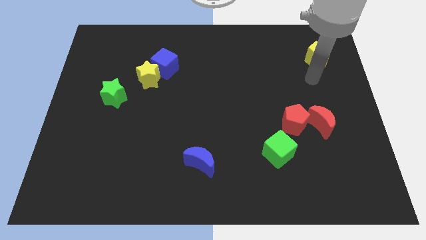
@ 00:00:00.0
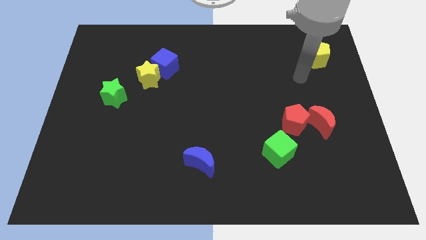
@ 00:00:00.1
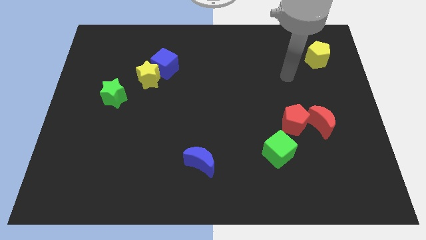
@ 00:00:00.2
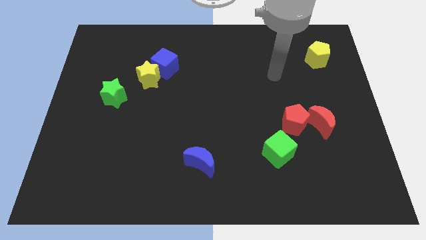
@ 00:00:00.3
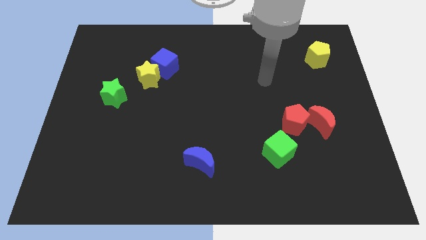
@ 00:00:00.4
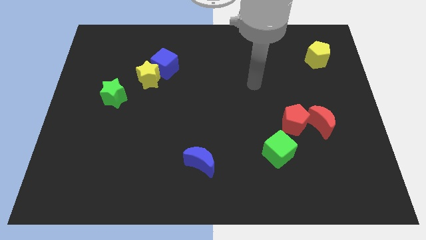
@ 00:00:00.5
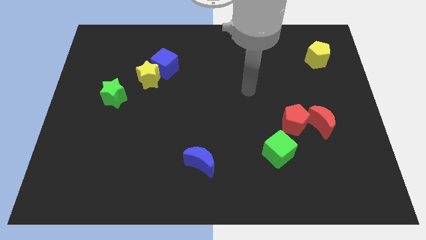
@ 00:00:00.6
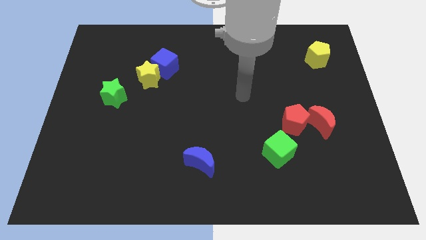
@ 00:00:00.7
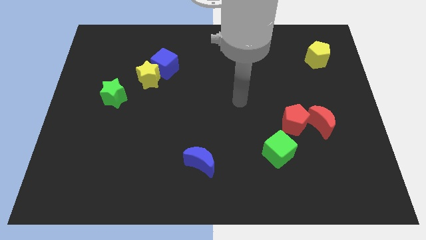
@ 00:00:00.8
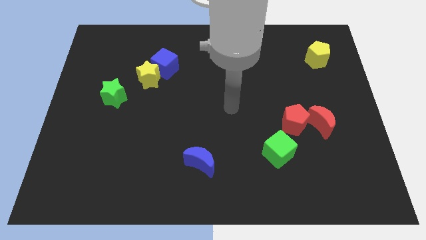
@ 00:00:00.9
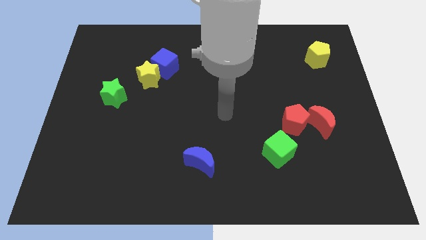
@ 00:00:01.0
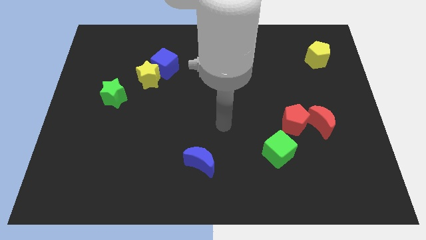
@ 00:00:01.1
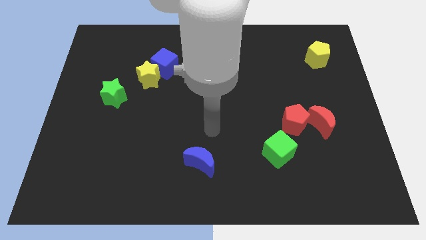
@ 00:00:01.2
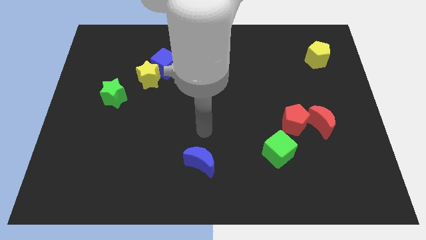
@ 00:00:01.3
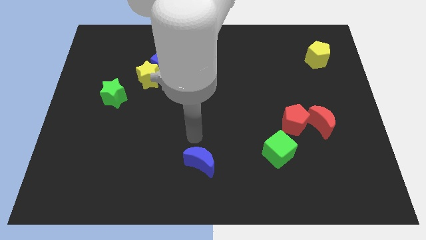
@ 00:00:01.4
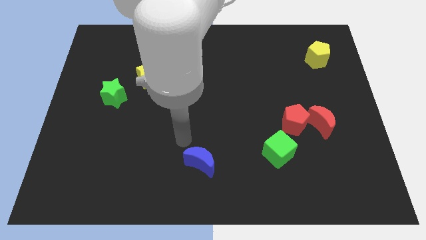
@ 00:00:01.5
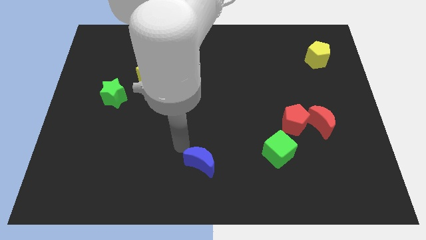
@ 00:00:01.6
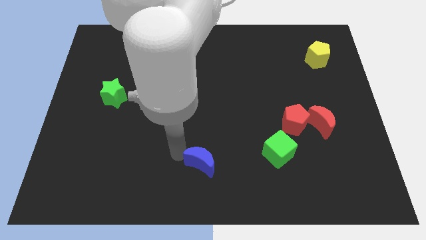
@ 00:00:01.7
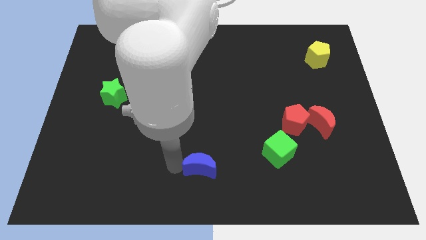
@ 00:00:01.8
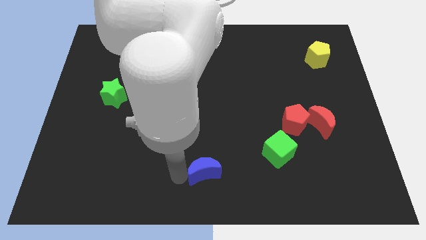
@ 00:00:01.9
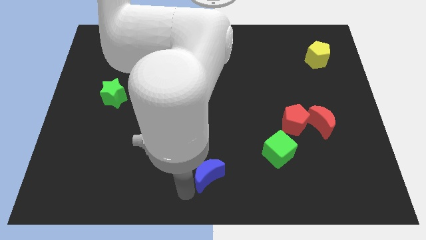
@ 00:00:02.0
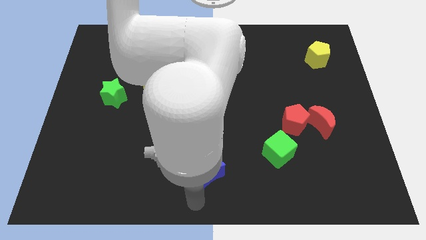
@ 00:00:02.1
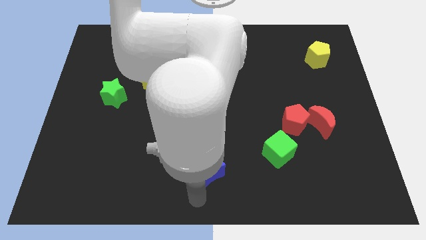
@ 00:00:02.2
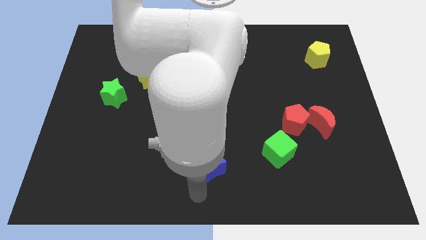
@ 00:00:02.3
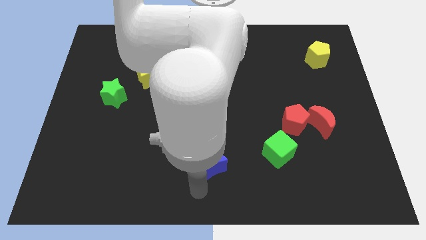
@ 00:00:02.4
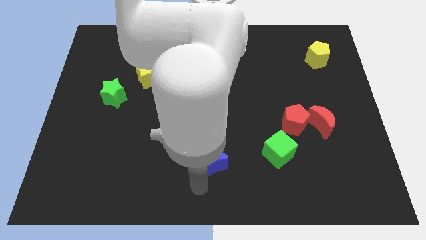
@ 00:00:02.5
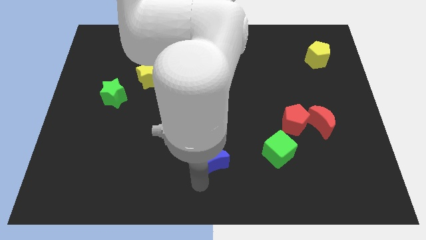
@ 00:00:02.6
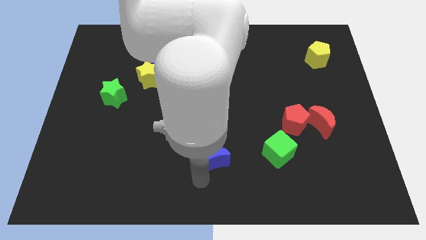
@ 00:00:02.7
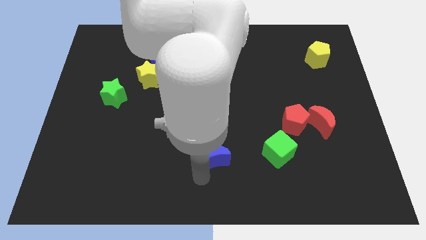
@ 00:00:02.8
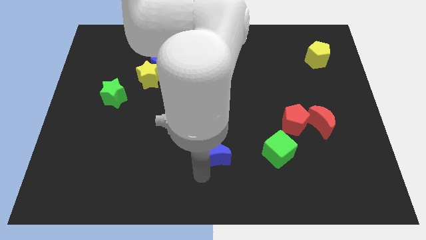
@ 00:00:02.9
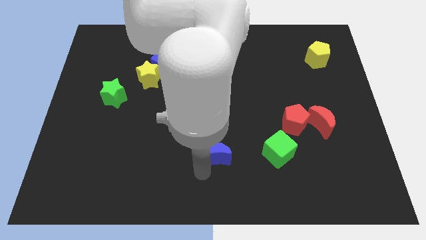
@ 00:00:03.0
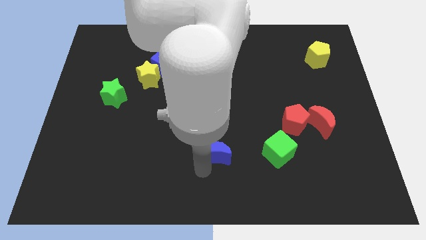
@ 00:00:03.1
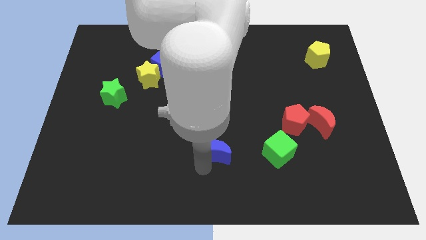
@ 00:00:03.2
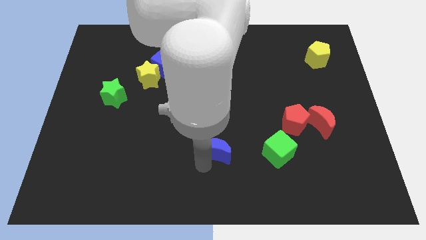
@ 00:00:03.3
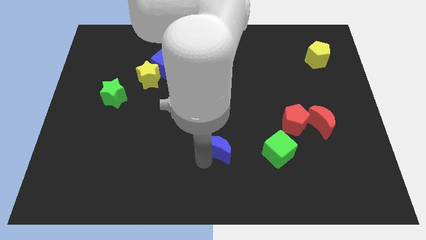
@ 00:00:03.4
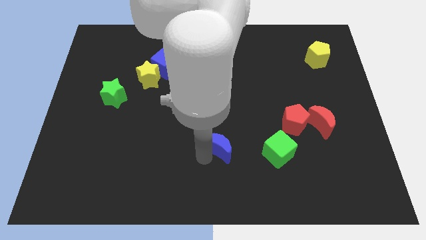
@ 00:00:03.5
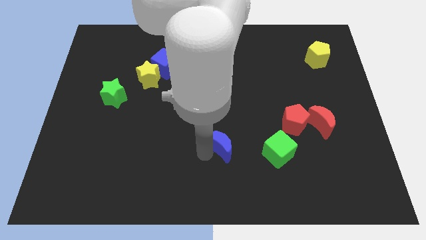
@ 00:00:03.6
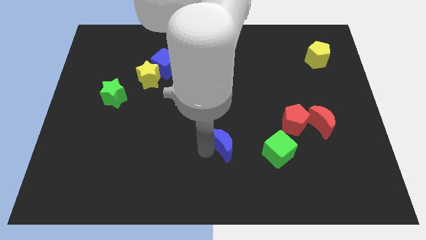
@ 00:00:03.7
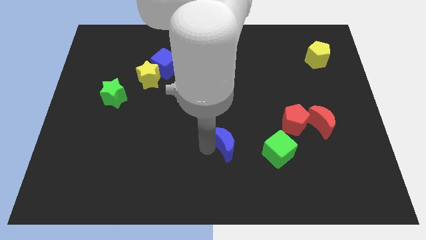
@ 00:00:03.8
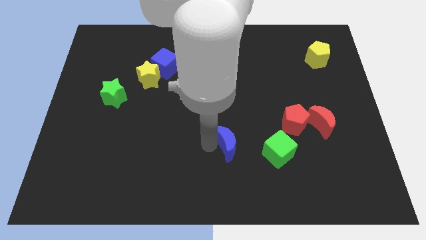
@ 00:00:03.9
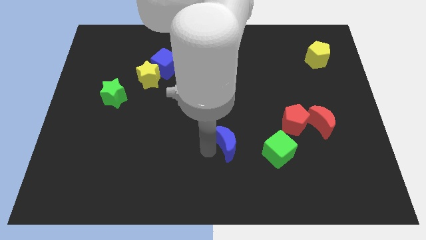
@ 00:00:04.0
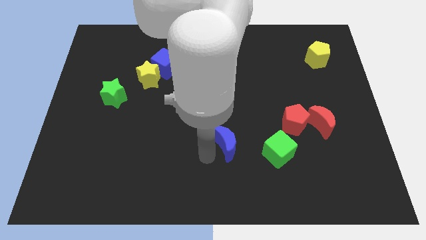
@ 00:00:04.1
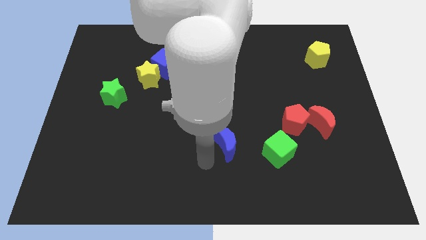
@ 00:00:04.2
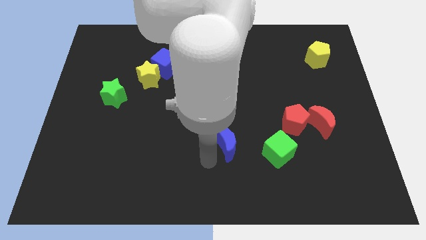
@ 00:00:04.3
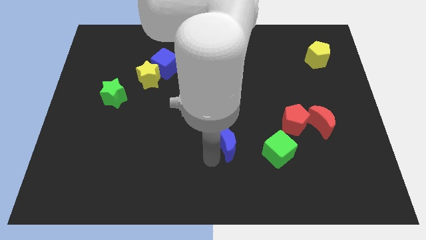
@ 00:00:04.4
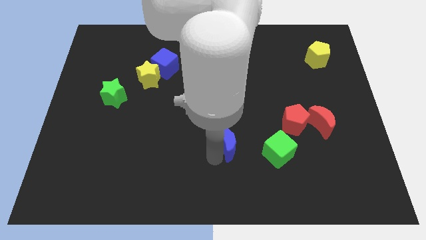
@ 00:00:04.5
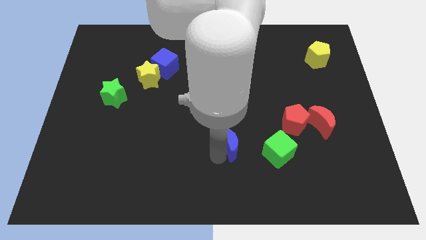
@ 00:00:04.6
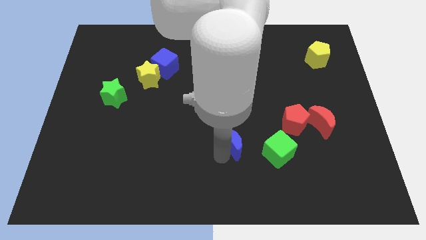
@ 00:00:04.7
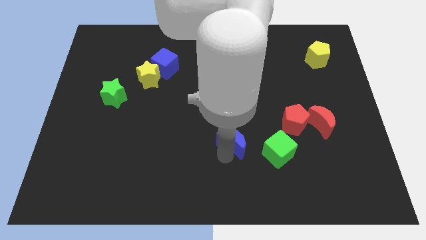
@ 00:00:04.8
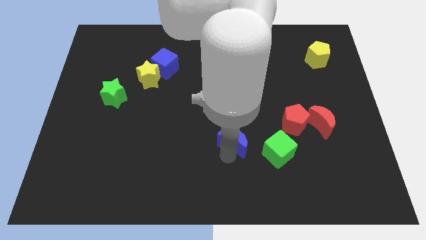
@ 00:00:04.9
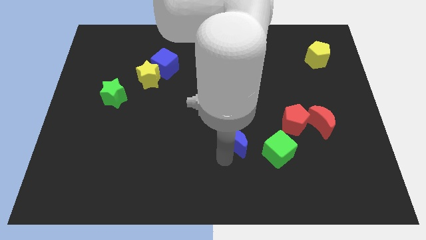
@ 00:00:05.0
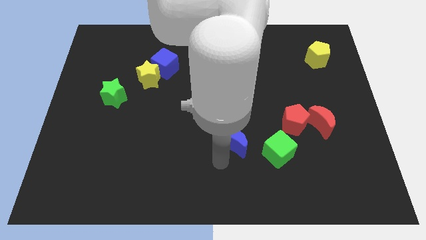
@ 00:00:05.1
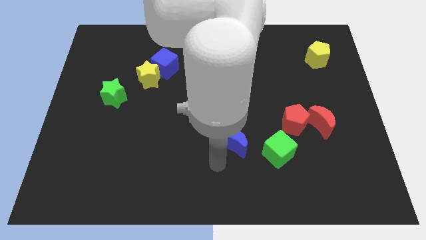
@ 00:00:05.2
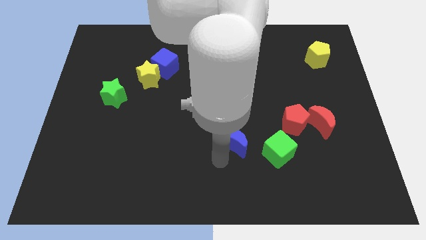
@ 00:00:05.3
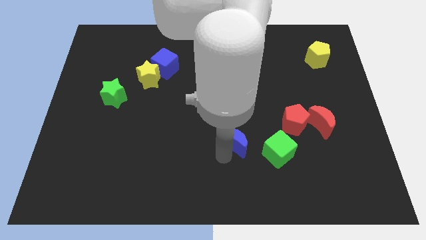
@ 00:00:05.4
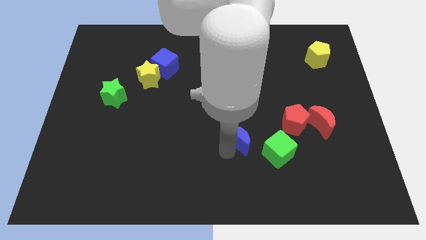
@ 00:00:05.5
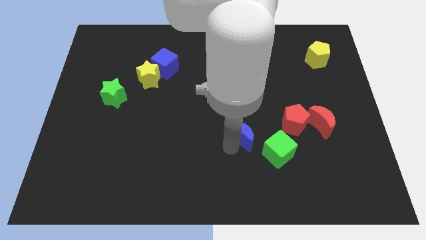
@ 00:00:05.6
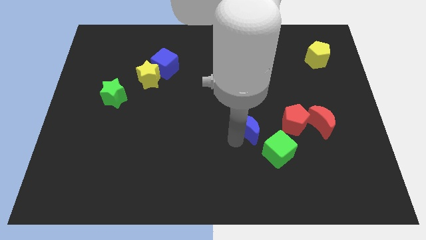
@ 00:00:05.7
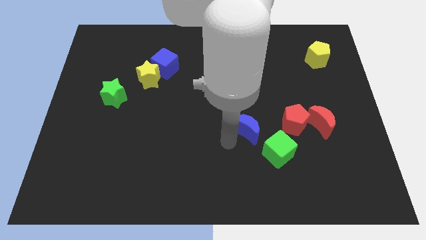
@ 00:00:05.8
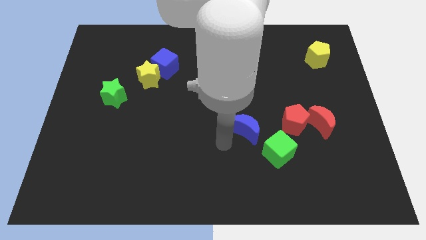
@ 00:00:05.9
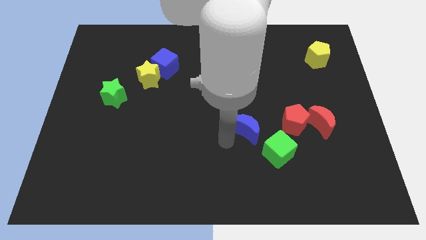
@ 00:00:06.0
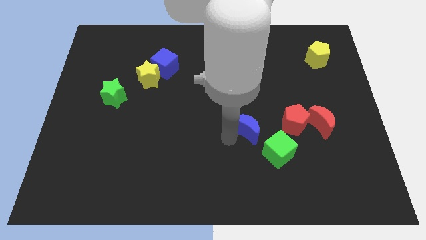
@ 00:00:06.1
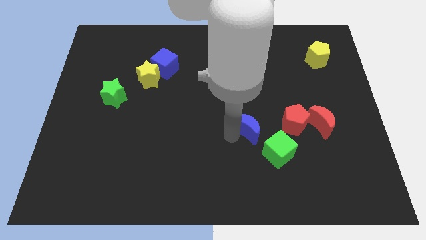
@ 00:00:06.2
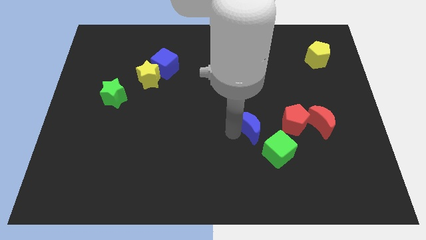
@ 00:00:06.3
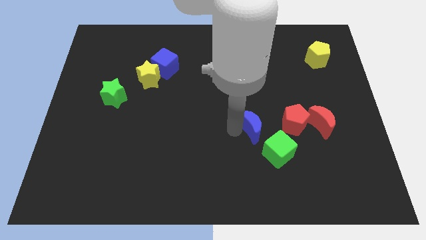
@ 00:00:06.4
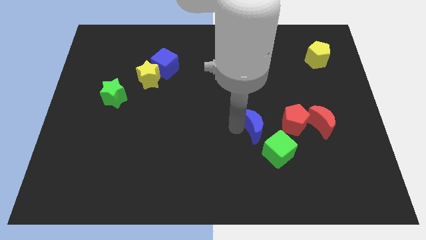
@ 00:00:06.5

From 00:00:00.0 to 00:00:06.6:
put the blue moon above the green cube

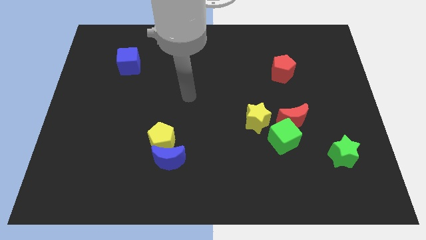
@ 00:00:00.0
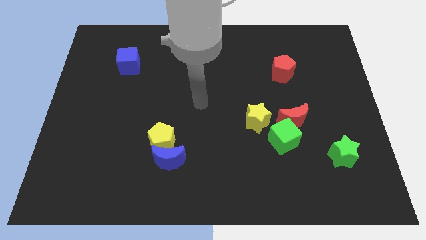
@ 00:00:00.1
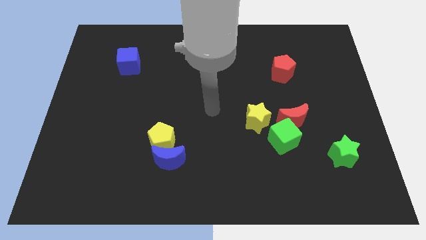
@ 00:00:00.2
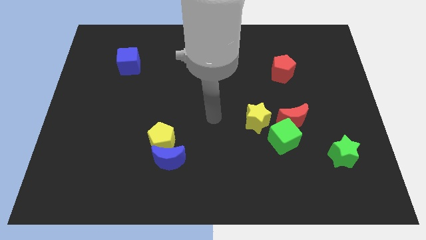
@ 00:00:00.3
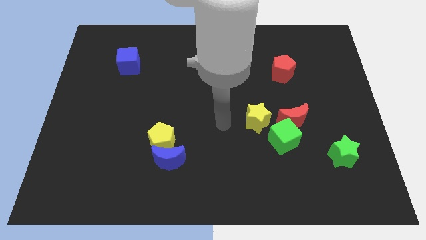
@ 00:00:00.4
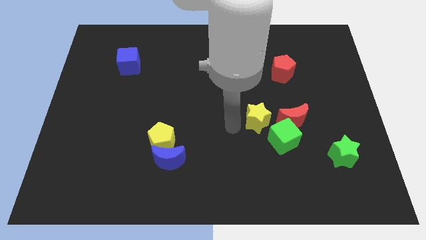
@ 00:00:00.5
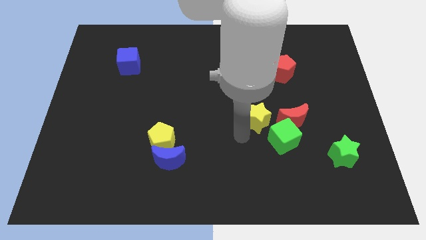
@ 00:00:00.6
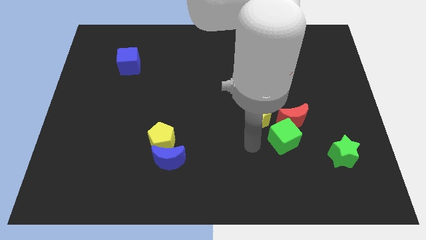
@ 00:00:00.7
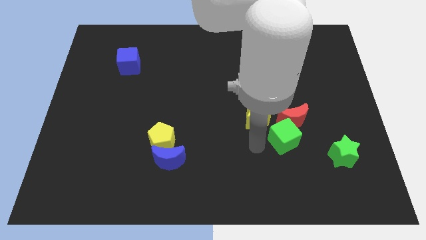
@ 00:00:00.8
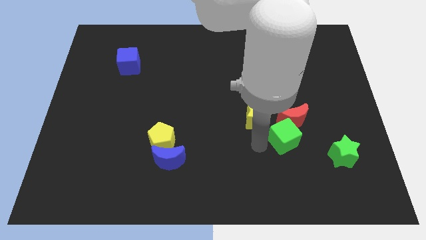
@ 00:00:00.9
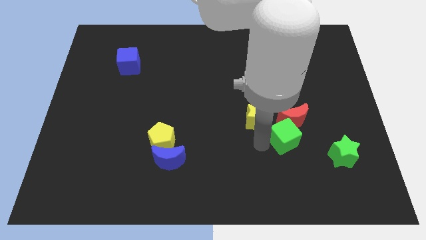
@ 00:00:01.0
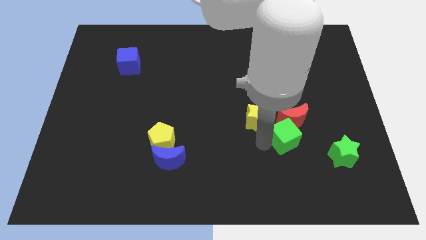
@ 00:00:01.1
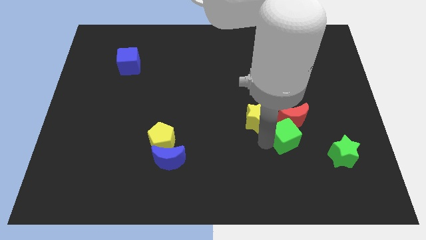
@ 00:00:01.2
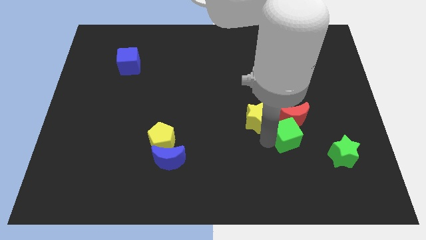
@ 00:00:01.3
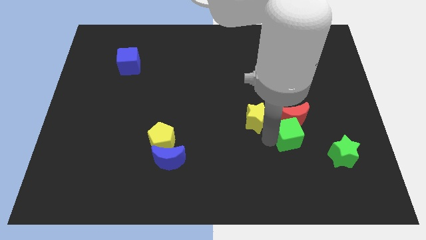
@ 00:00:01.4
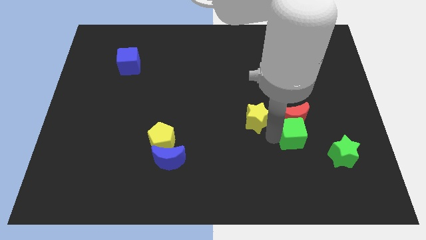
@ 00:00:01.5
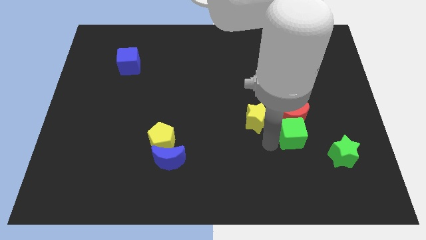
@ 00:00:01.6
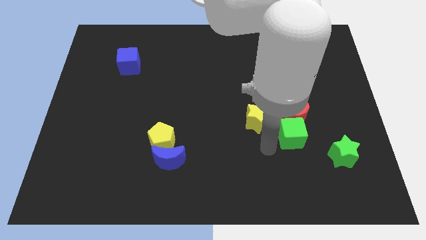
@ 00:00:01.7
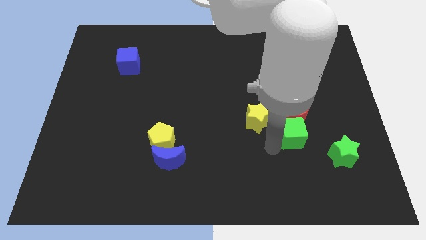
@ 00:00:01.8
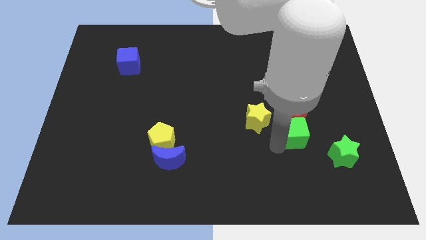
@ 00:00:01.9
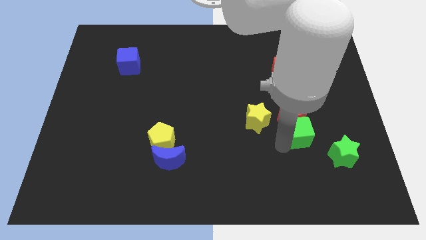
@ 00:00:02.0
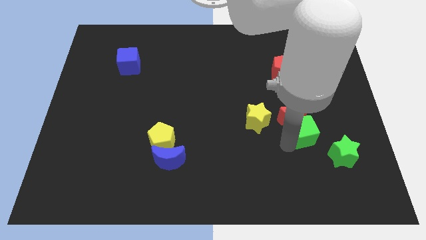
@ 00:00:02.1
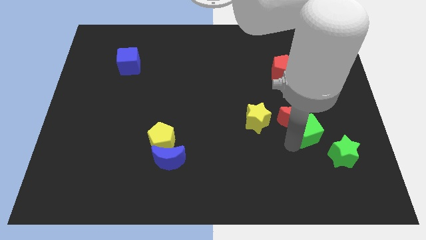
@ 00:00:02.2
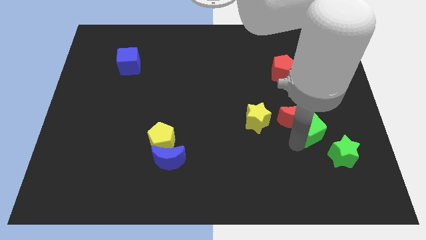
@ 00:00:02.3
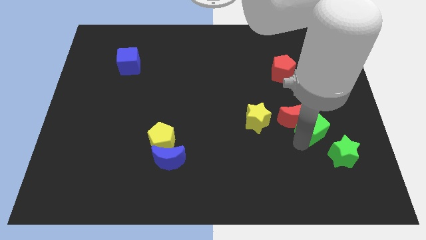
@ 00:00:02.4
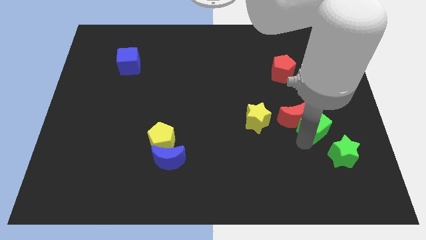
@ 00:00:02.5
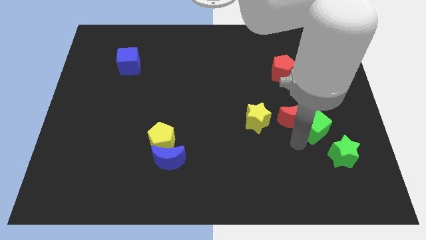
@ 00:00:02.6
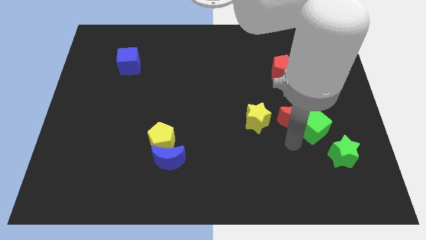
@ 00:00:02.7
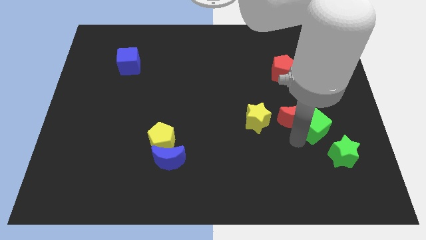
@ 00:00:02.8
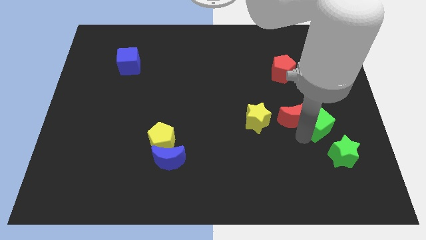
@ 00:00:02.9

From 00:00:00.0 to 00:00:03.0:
push the green cube above the green star
